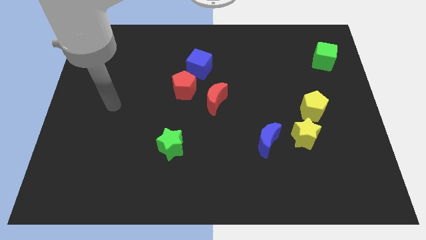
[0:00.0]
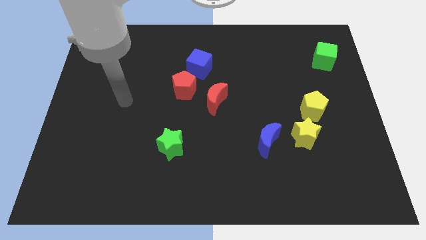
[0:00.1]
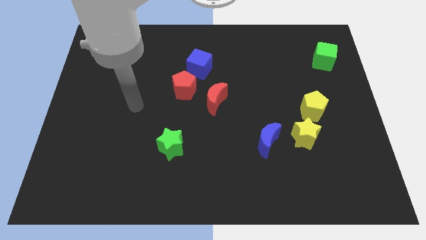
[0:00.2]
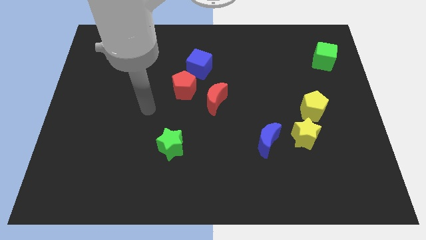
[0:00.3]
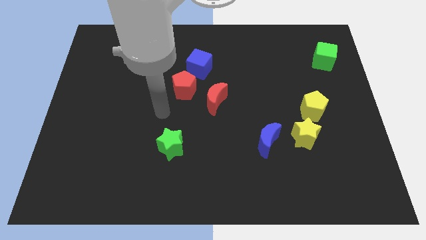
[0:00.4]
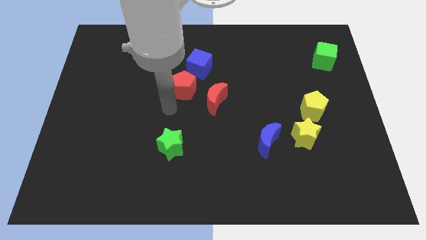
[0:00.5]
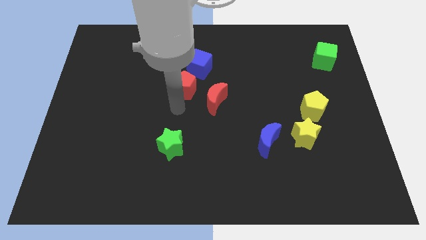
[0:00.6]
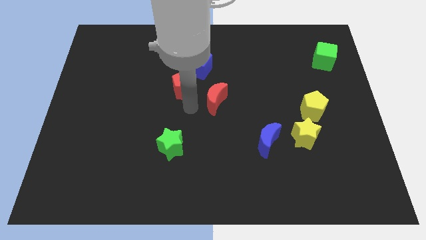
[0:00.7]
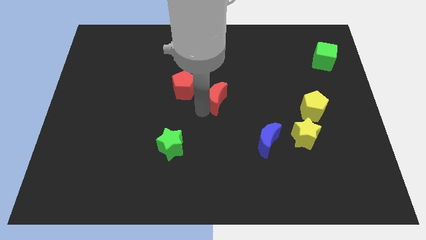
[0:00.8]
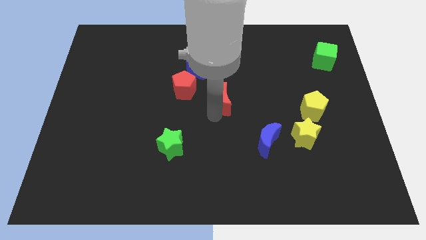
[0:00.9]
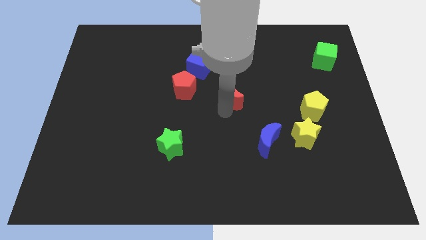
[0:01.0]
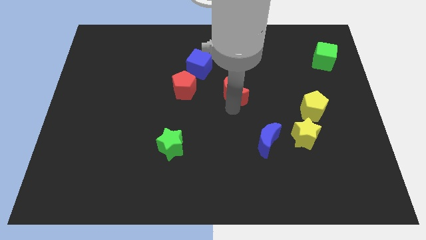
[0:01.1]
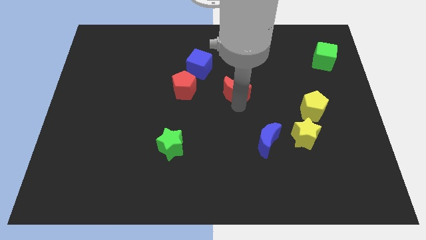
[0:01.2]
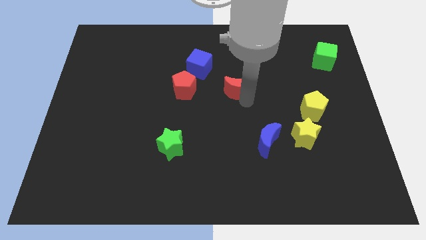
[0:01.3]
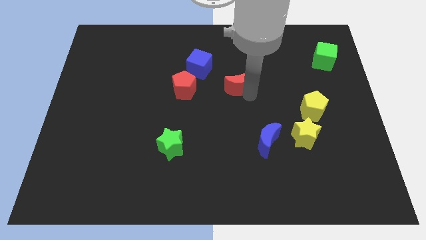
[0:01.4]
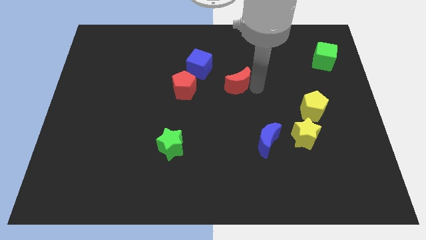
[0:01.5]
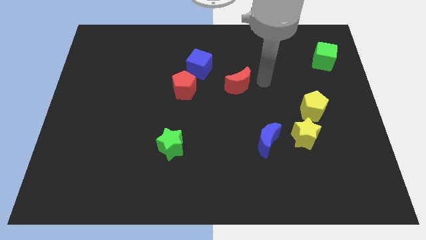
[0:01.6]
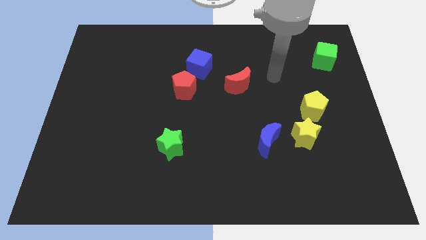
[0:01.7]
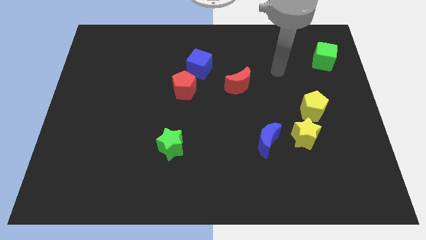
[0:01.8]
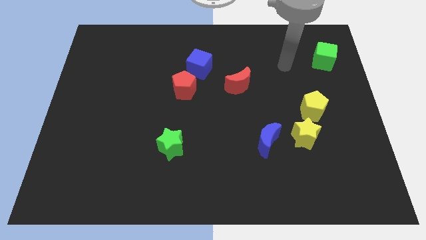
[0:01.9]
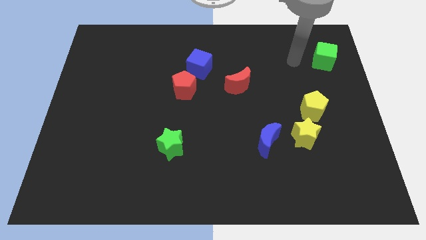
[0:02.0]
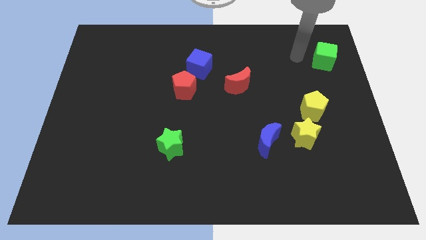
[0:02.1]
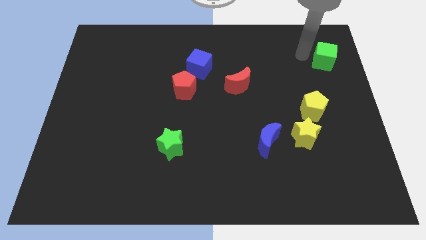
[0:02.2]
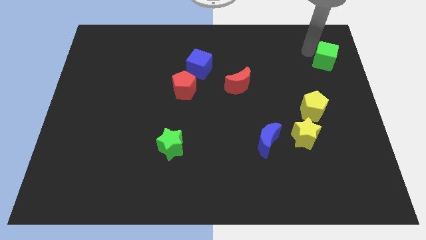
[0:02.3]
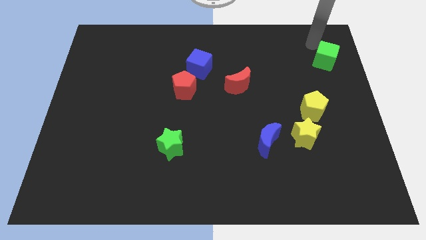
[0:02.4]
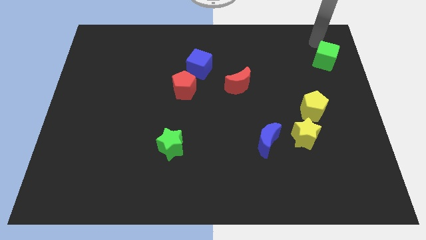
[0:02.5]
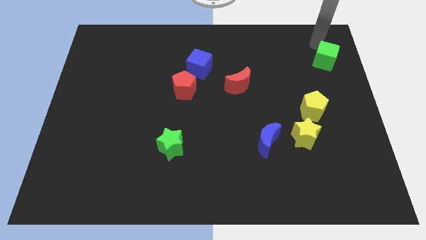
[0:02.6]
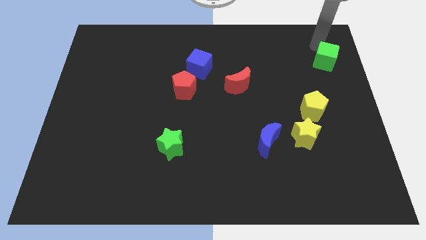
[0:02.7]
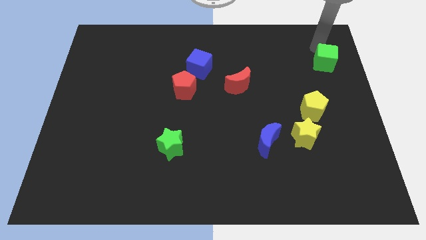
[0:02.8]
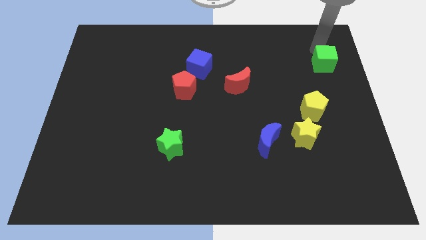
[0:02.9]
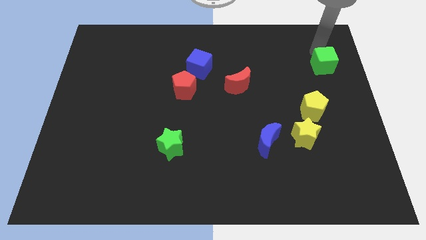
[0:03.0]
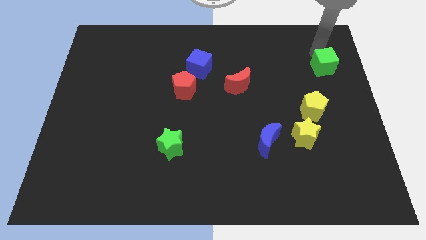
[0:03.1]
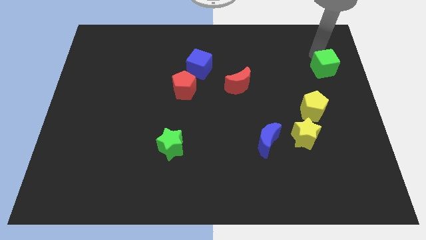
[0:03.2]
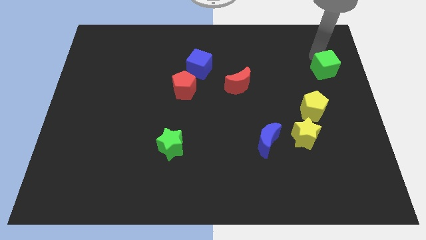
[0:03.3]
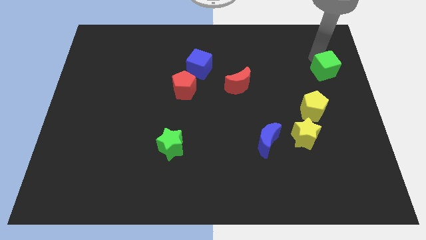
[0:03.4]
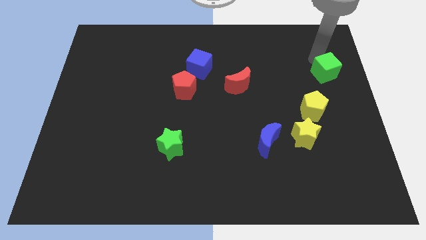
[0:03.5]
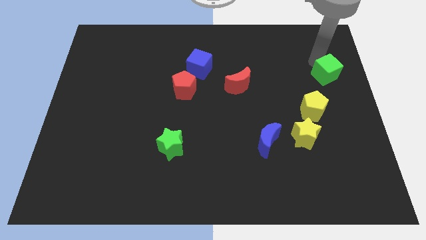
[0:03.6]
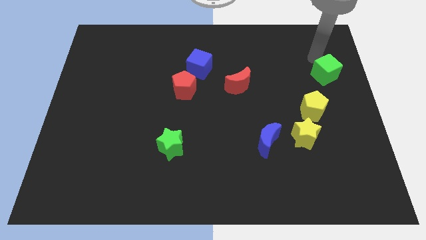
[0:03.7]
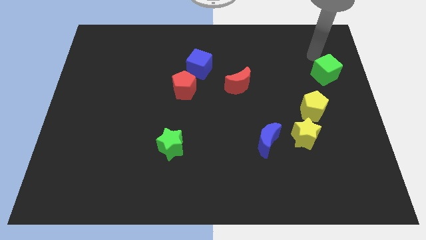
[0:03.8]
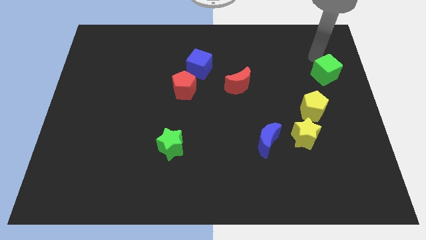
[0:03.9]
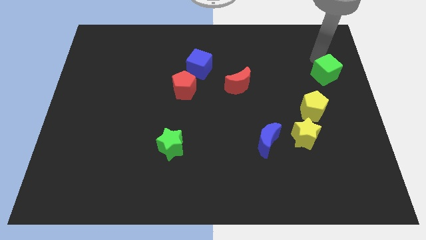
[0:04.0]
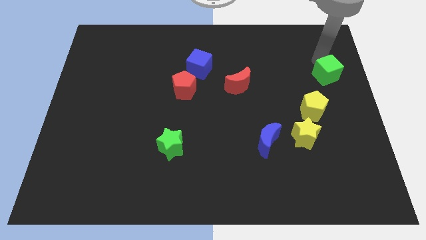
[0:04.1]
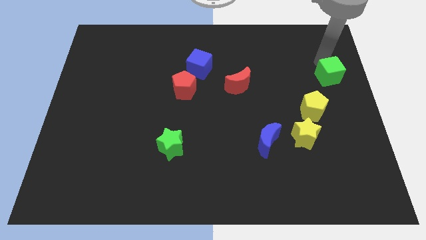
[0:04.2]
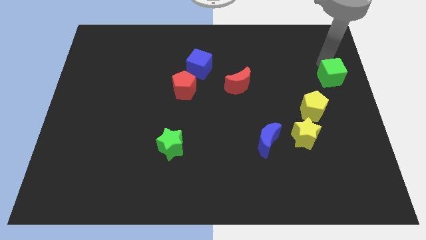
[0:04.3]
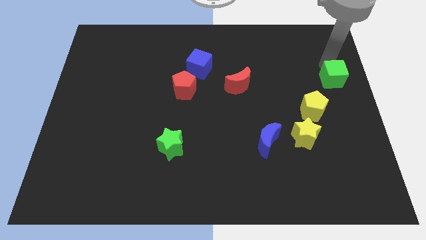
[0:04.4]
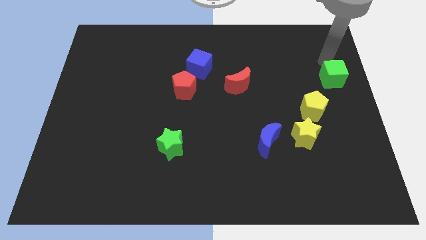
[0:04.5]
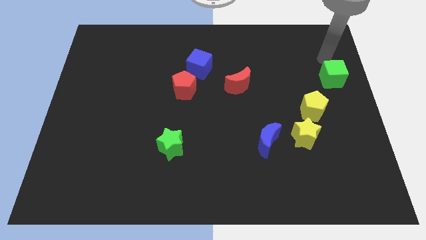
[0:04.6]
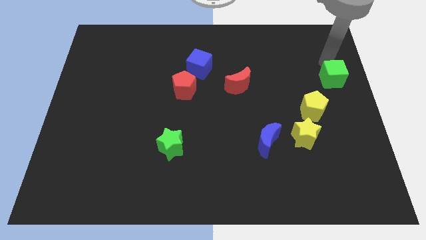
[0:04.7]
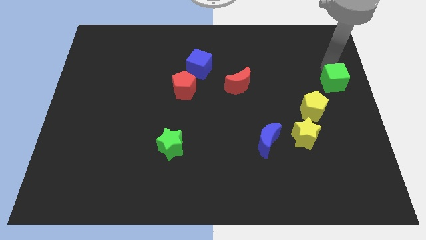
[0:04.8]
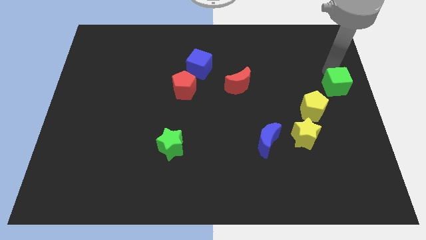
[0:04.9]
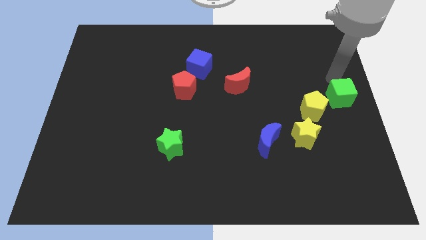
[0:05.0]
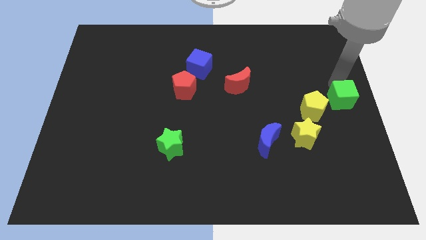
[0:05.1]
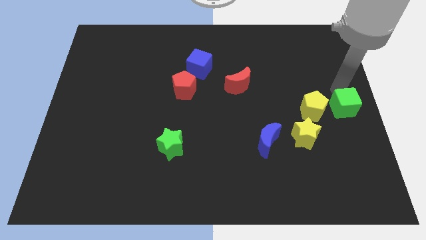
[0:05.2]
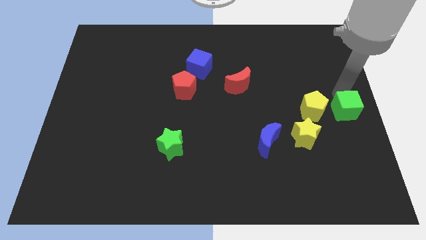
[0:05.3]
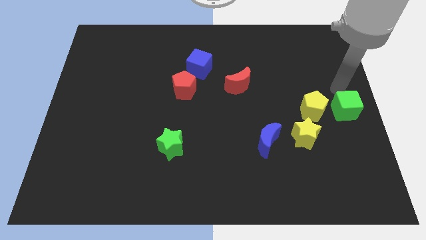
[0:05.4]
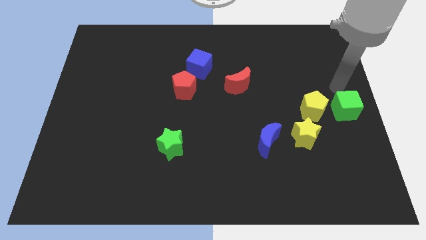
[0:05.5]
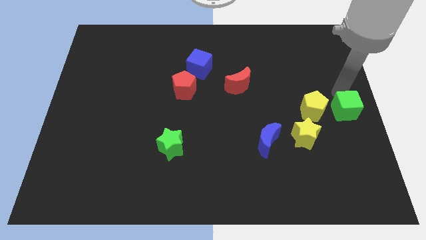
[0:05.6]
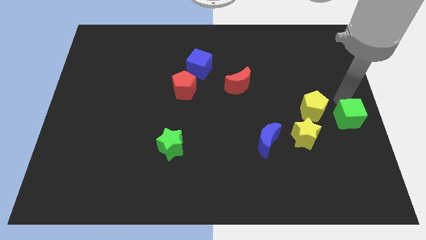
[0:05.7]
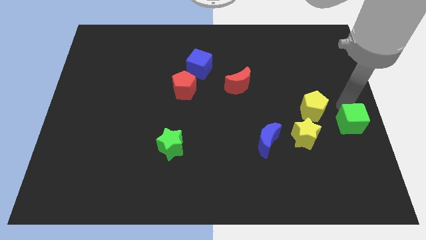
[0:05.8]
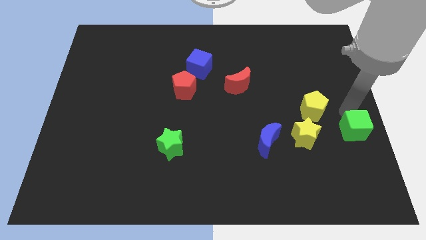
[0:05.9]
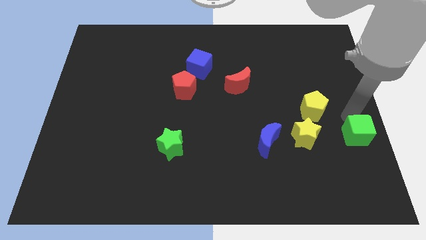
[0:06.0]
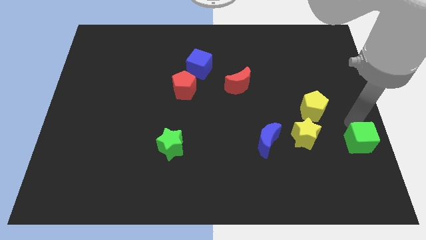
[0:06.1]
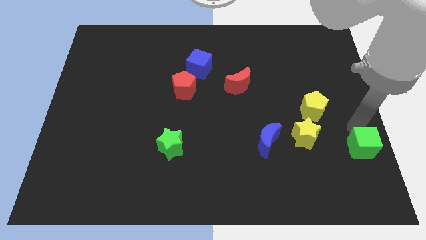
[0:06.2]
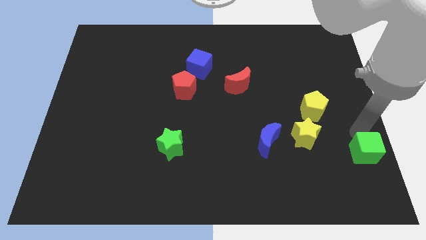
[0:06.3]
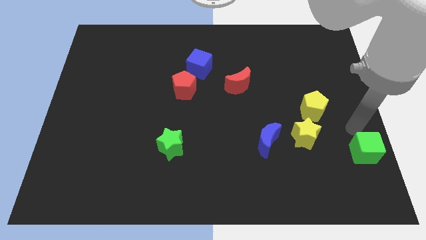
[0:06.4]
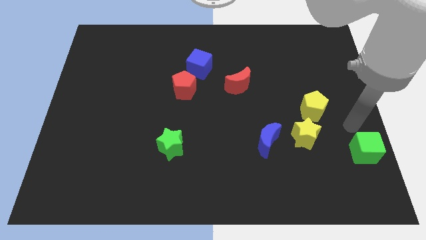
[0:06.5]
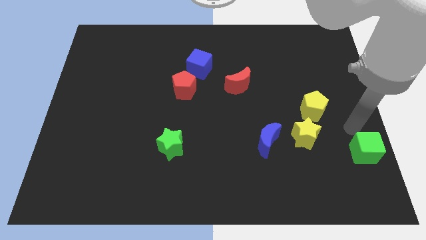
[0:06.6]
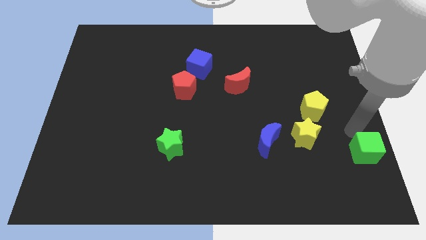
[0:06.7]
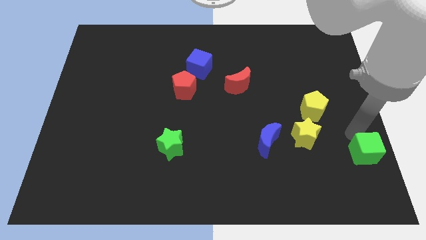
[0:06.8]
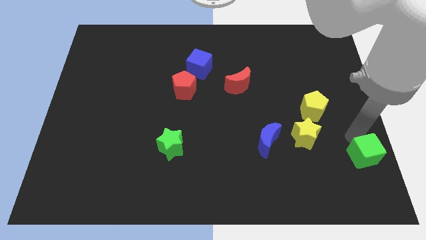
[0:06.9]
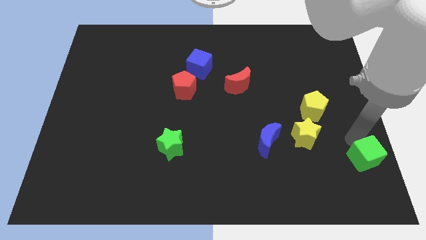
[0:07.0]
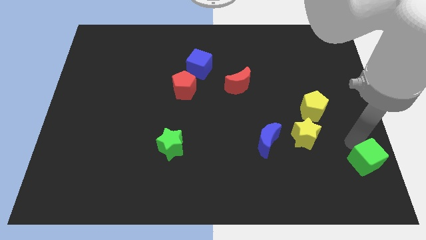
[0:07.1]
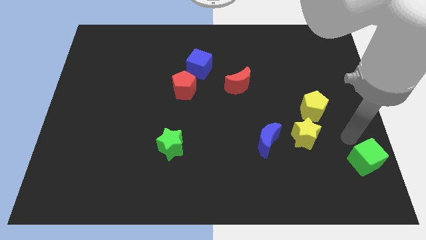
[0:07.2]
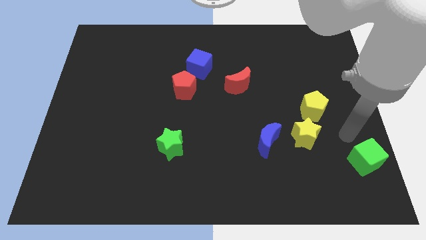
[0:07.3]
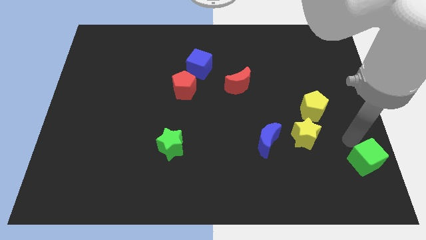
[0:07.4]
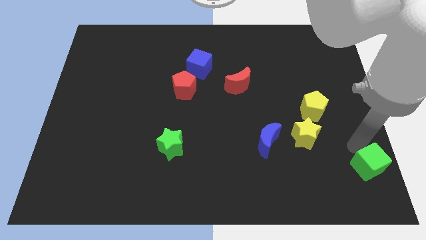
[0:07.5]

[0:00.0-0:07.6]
slide the green cube to the bottom right corner
